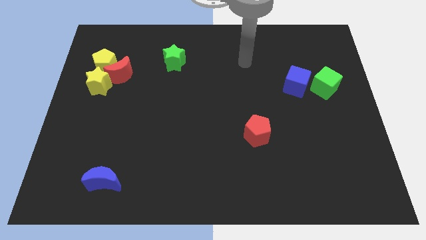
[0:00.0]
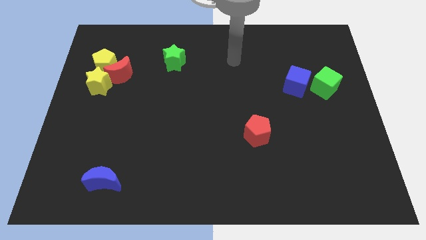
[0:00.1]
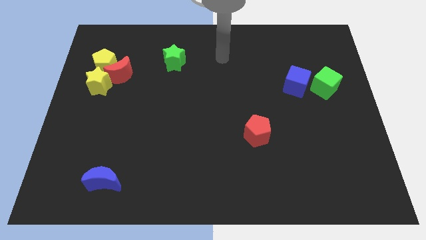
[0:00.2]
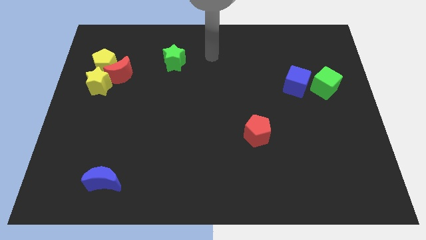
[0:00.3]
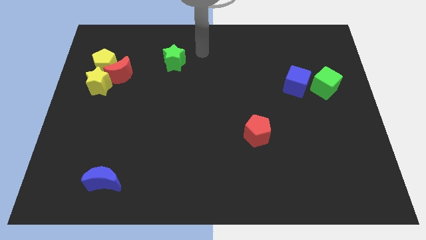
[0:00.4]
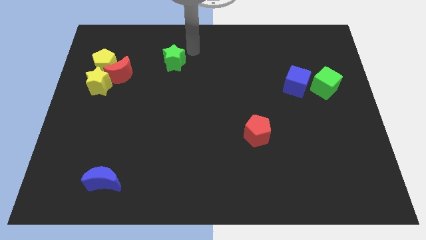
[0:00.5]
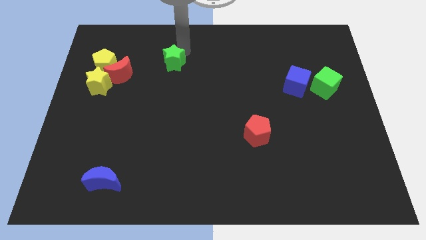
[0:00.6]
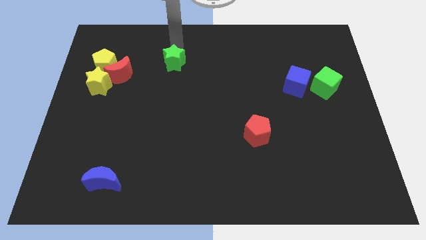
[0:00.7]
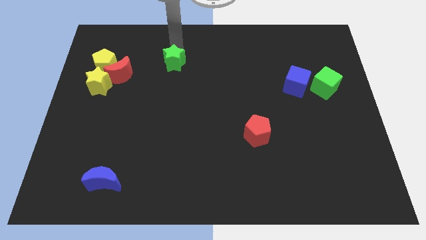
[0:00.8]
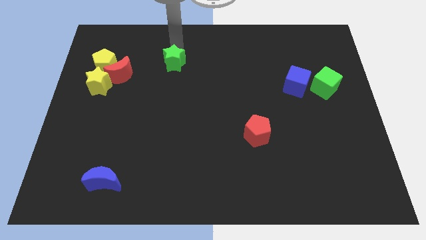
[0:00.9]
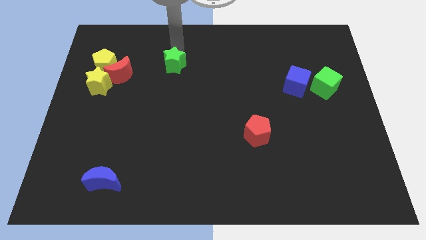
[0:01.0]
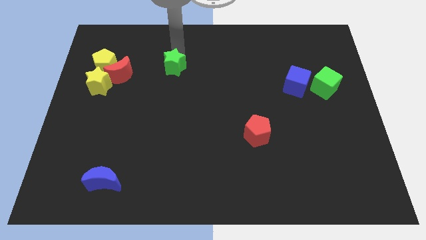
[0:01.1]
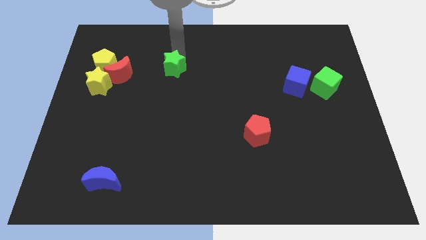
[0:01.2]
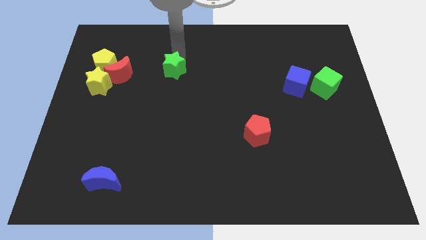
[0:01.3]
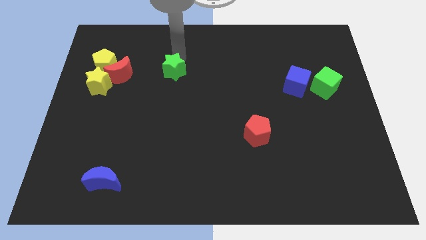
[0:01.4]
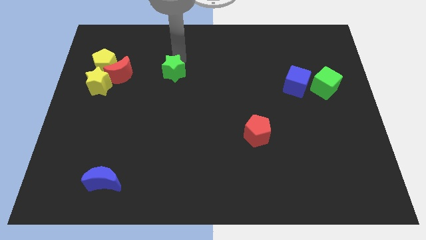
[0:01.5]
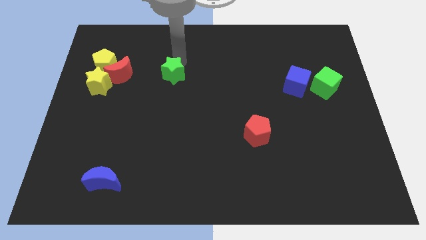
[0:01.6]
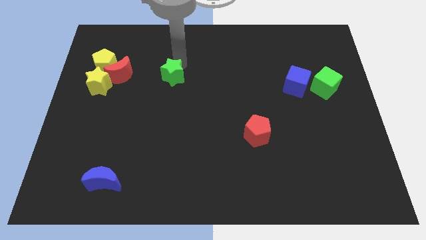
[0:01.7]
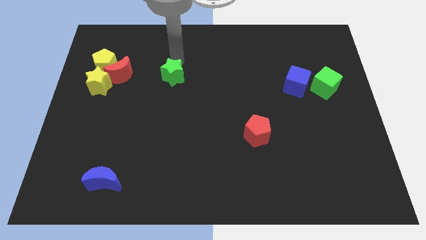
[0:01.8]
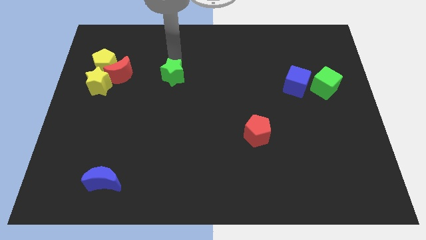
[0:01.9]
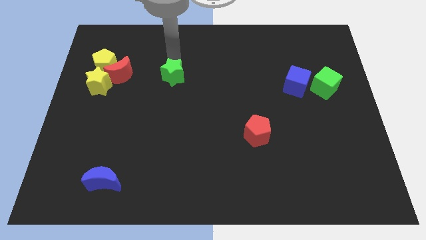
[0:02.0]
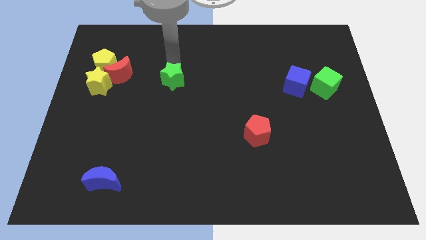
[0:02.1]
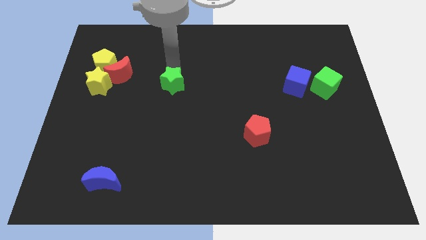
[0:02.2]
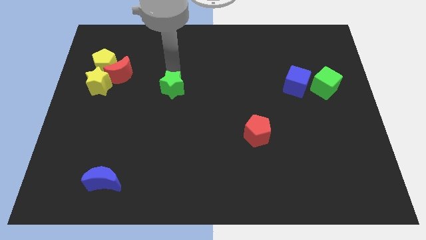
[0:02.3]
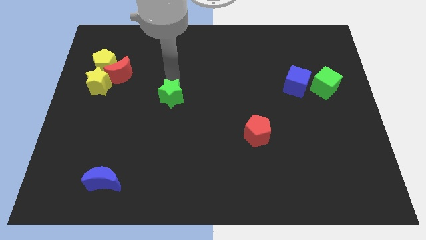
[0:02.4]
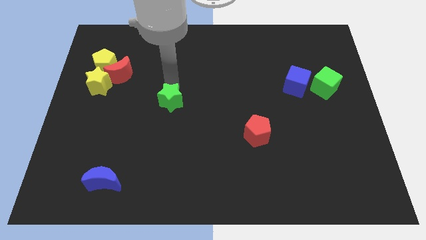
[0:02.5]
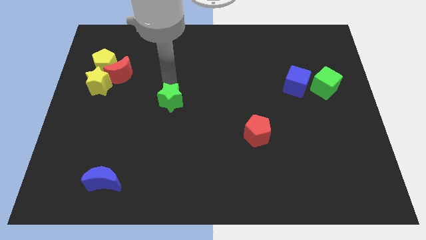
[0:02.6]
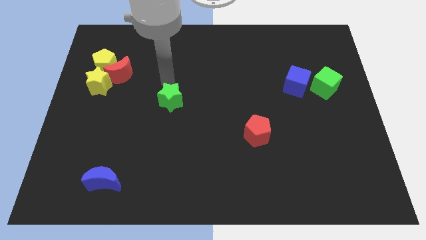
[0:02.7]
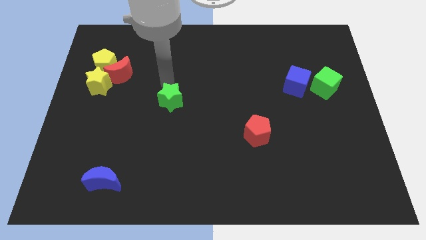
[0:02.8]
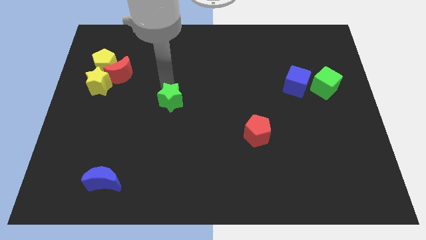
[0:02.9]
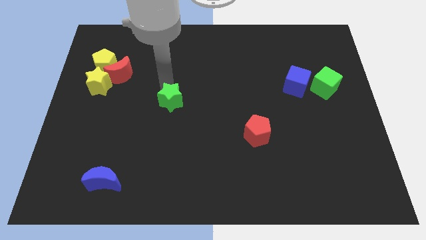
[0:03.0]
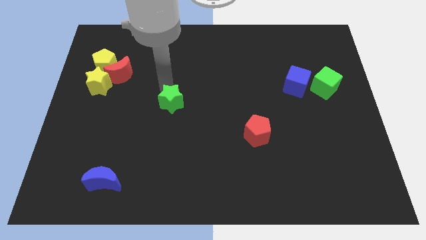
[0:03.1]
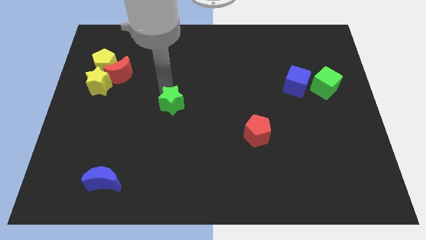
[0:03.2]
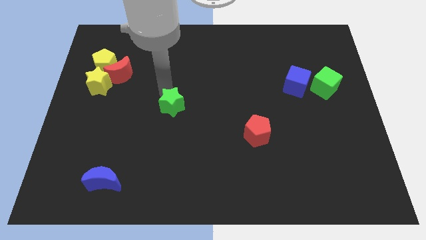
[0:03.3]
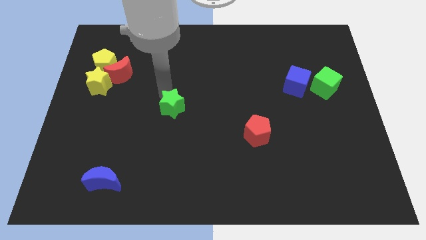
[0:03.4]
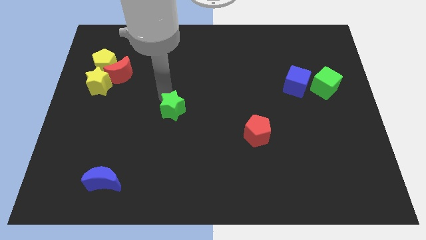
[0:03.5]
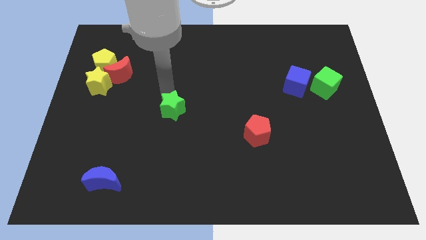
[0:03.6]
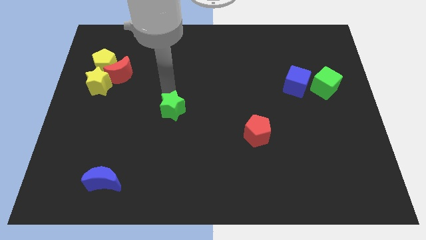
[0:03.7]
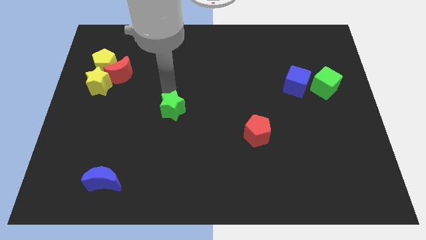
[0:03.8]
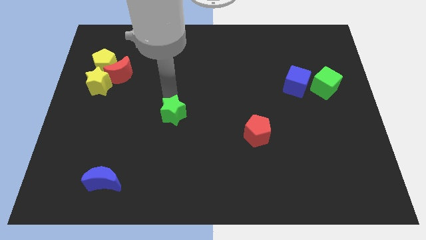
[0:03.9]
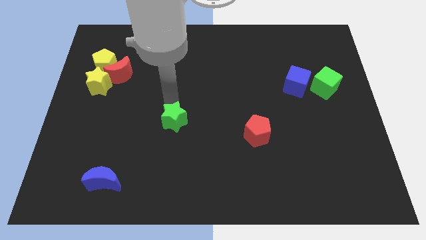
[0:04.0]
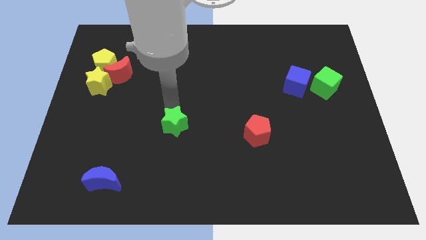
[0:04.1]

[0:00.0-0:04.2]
push the green star downwards

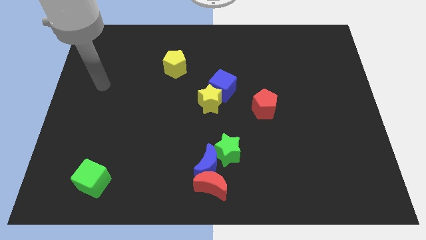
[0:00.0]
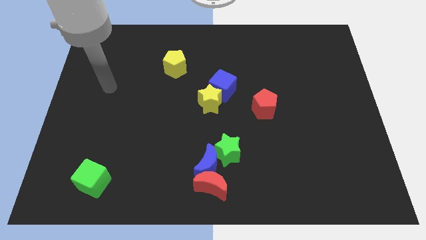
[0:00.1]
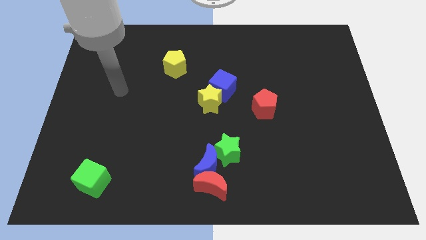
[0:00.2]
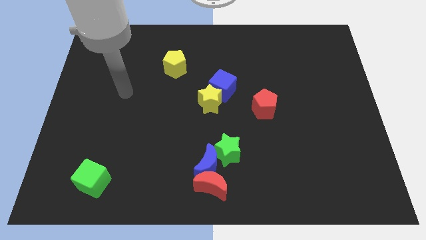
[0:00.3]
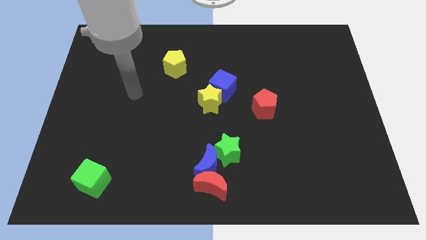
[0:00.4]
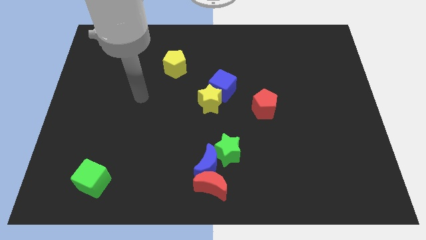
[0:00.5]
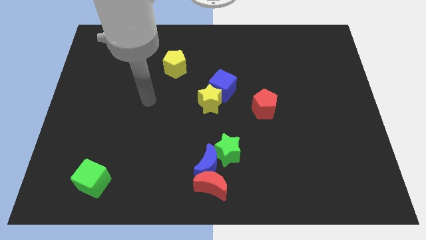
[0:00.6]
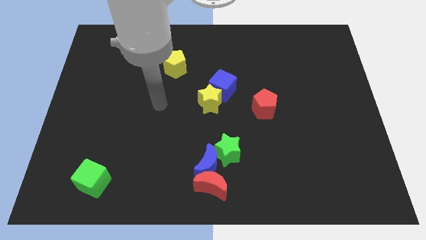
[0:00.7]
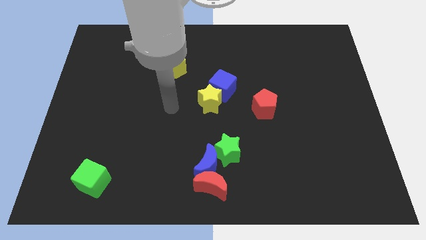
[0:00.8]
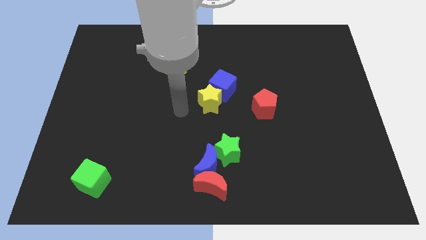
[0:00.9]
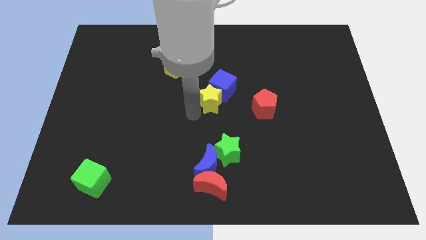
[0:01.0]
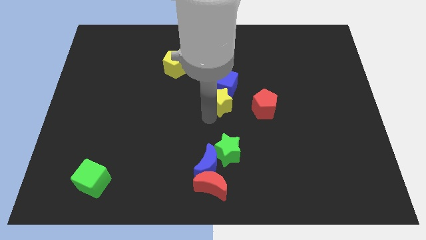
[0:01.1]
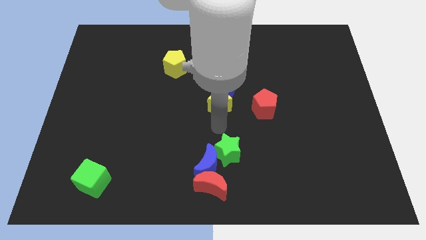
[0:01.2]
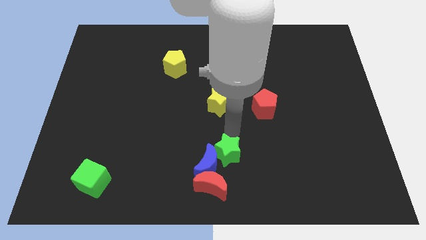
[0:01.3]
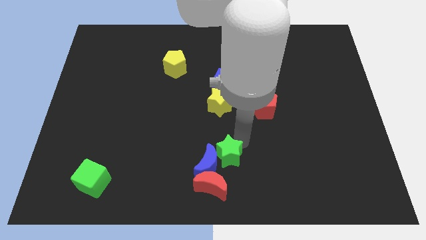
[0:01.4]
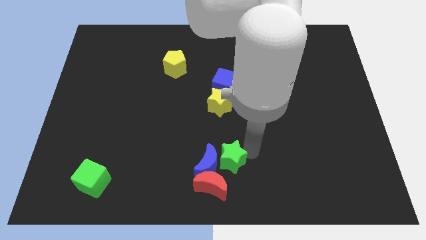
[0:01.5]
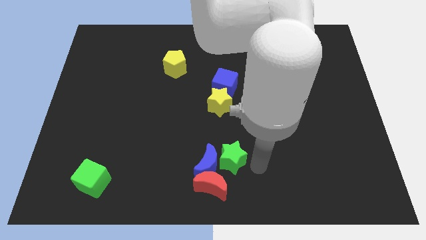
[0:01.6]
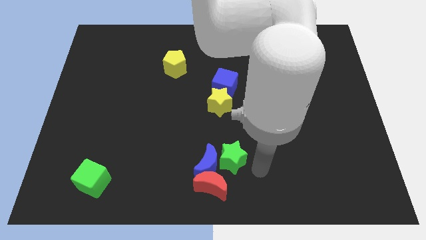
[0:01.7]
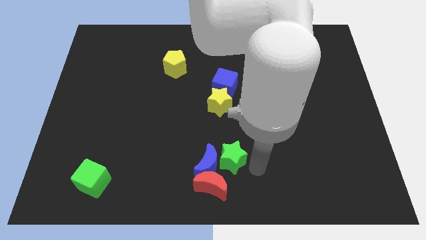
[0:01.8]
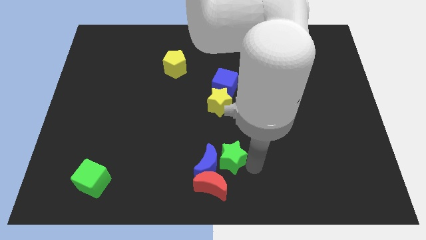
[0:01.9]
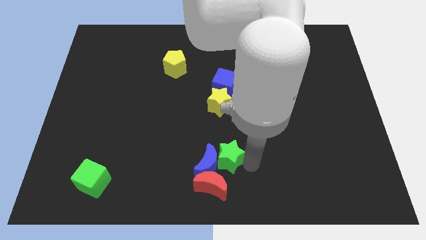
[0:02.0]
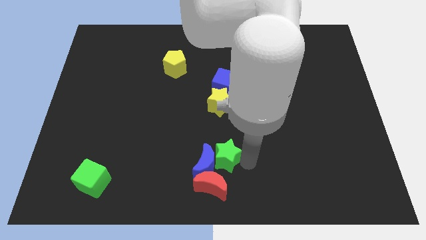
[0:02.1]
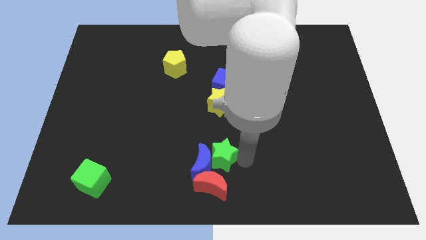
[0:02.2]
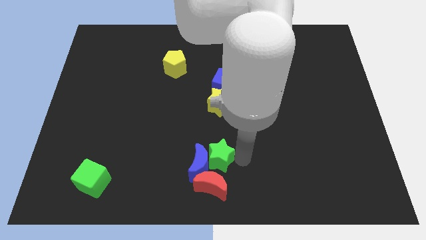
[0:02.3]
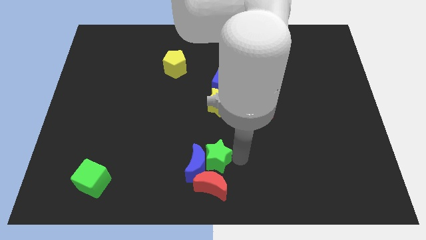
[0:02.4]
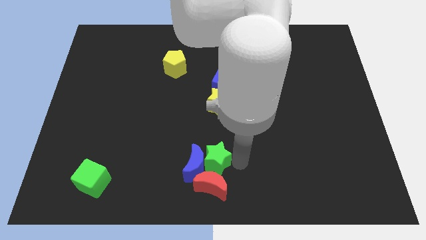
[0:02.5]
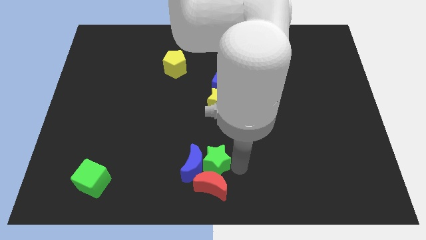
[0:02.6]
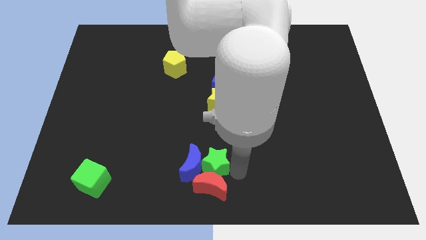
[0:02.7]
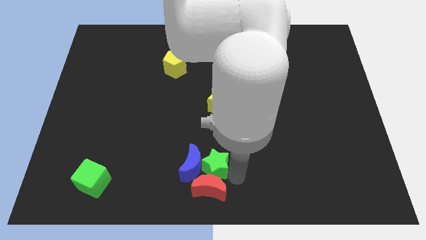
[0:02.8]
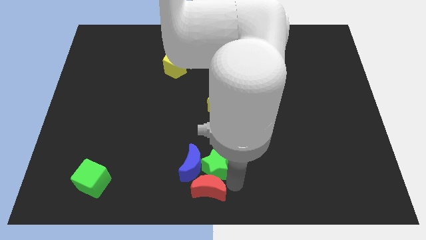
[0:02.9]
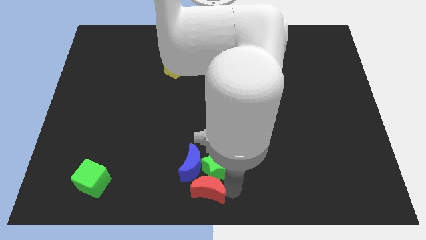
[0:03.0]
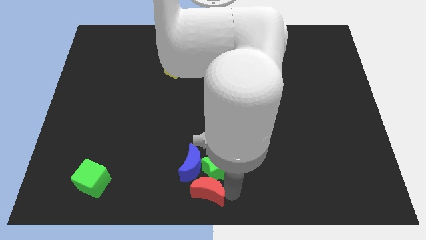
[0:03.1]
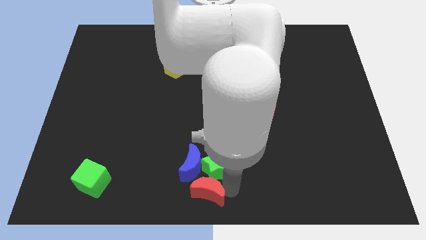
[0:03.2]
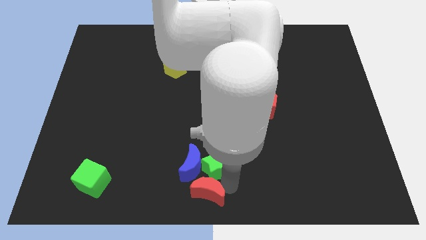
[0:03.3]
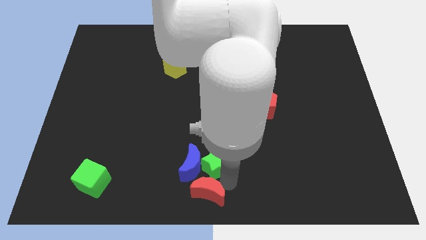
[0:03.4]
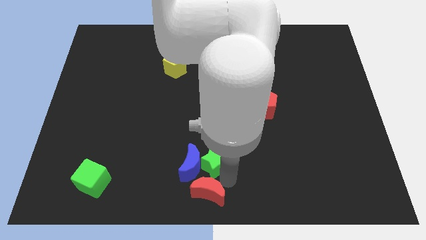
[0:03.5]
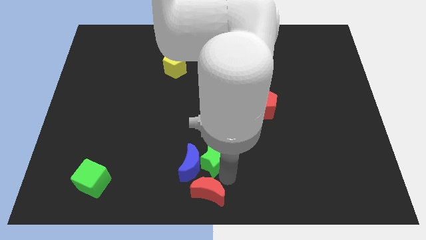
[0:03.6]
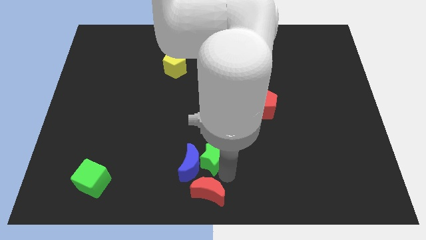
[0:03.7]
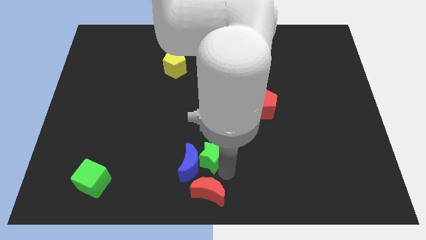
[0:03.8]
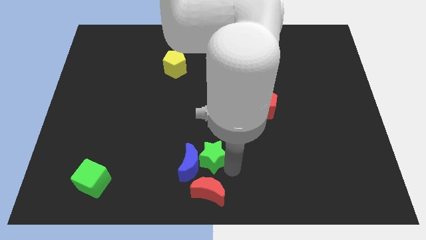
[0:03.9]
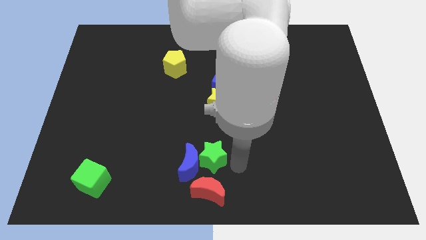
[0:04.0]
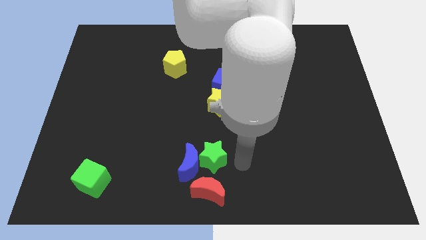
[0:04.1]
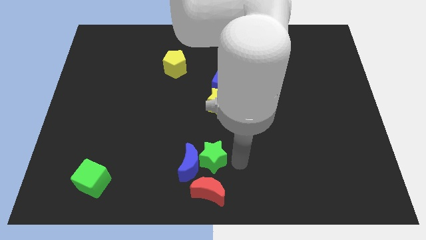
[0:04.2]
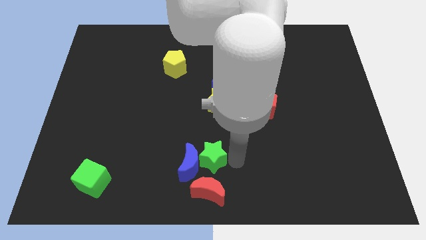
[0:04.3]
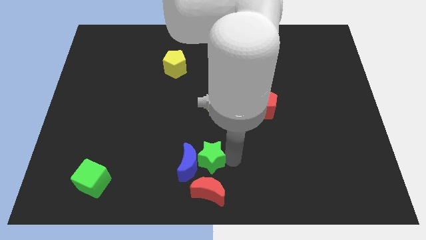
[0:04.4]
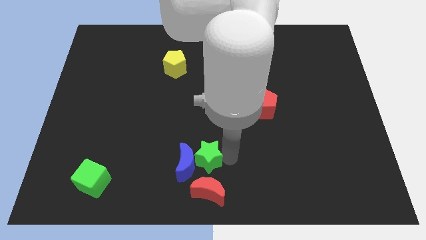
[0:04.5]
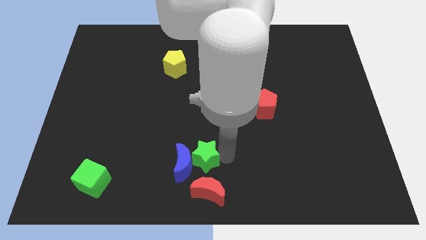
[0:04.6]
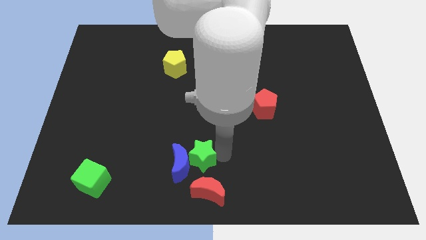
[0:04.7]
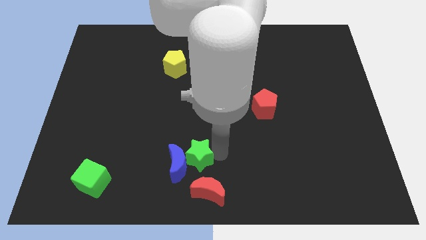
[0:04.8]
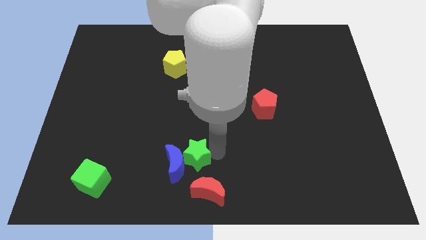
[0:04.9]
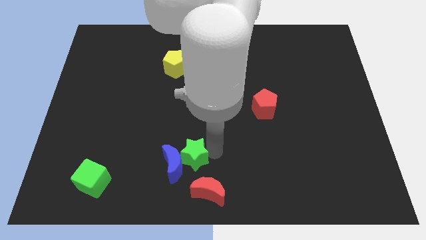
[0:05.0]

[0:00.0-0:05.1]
slide the green star a little bit to the left
